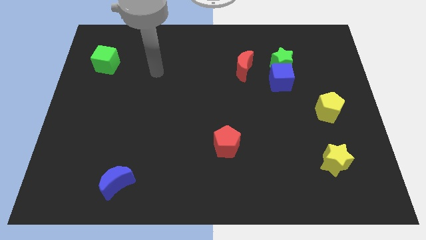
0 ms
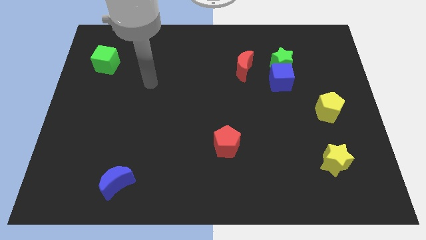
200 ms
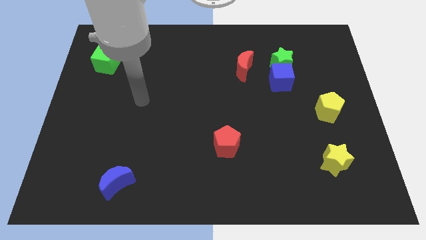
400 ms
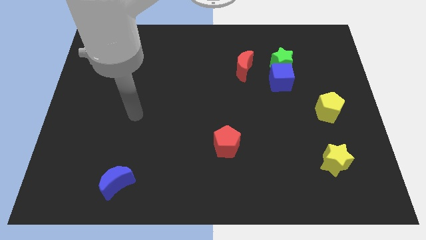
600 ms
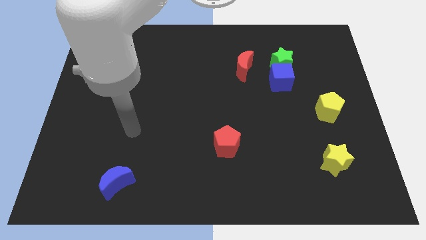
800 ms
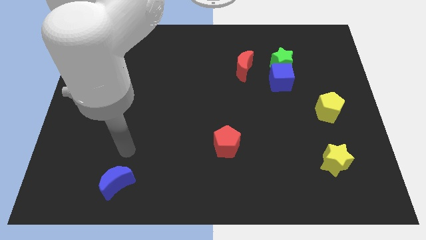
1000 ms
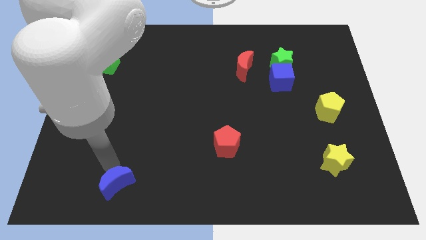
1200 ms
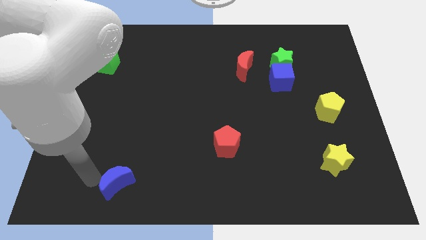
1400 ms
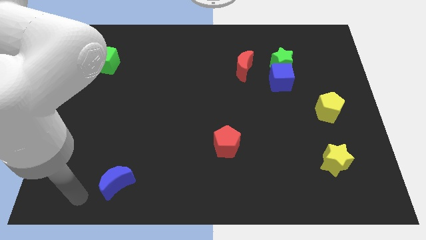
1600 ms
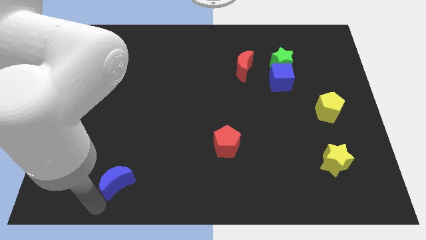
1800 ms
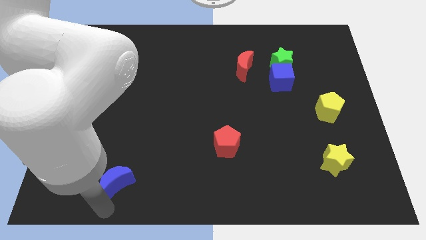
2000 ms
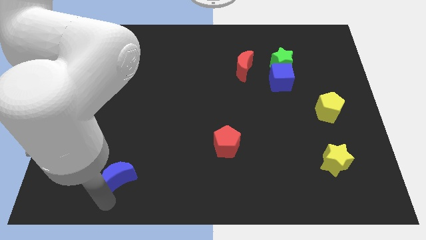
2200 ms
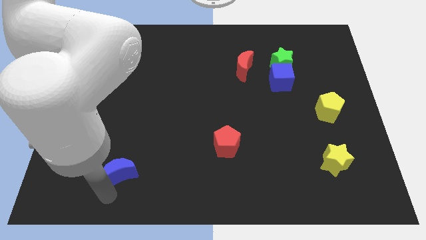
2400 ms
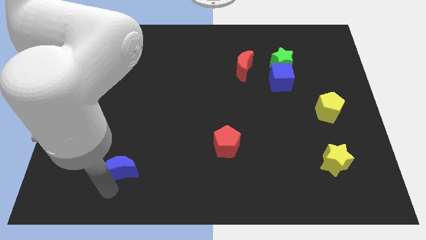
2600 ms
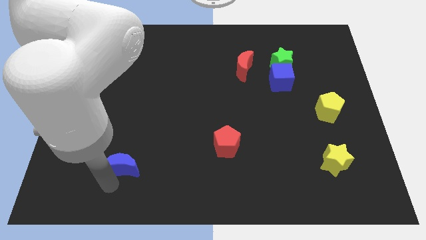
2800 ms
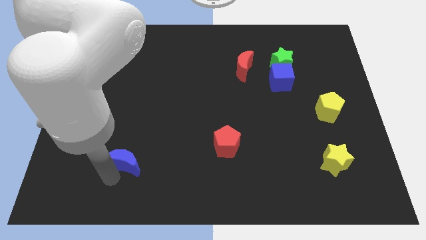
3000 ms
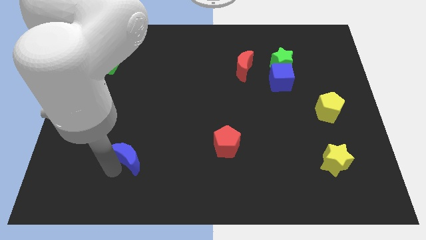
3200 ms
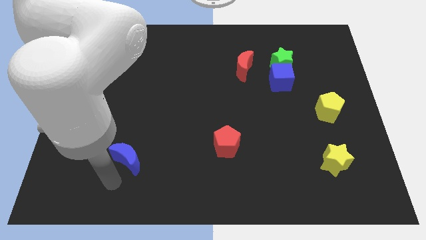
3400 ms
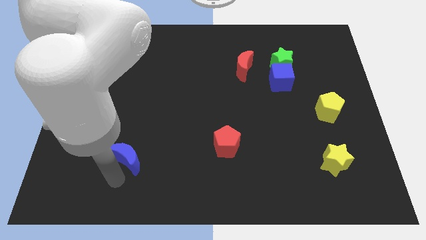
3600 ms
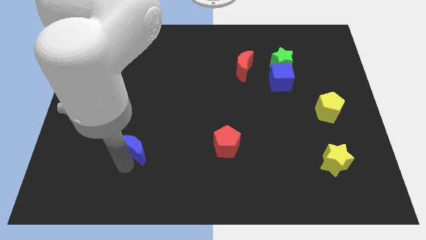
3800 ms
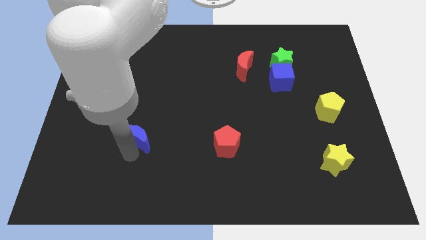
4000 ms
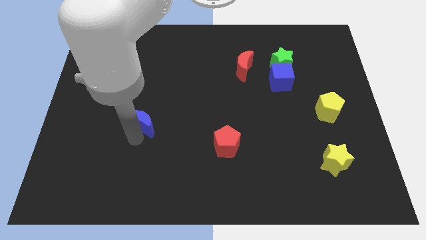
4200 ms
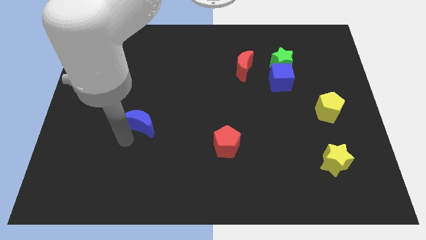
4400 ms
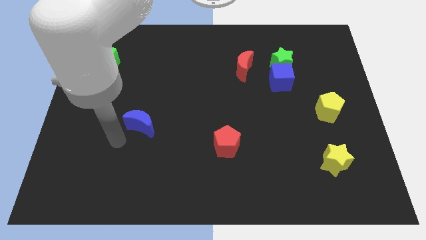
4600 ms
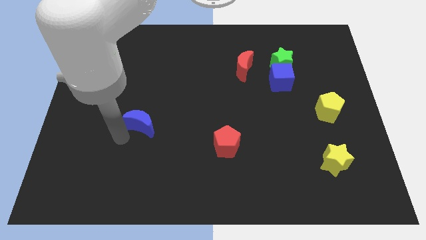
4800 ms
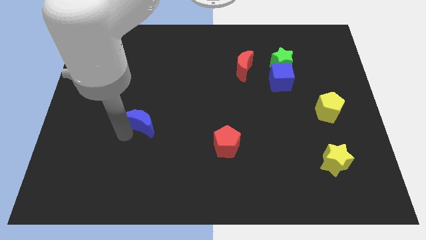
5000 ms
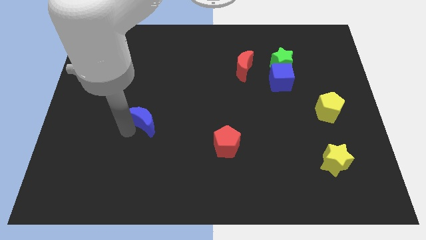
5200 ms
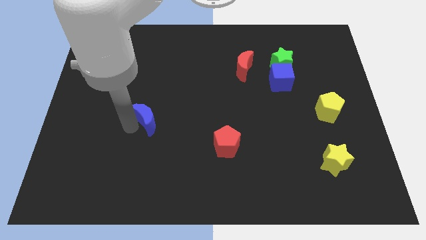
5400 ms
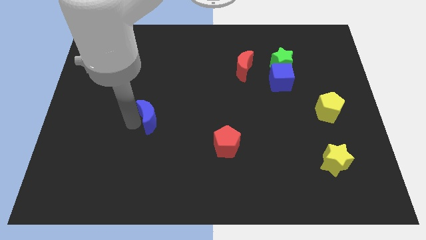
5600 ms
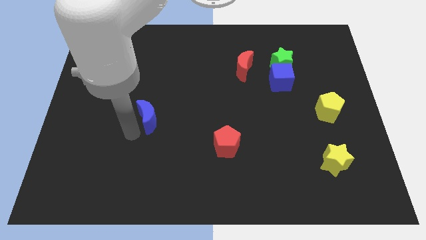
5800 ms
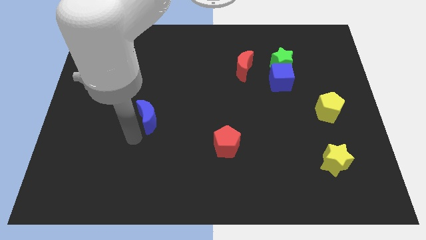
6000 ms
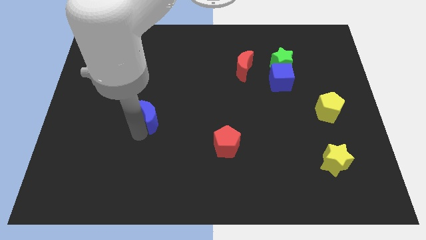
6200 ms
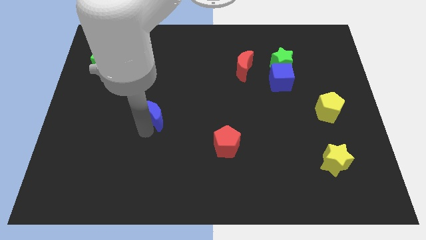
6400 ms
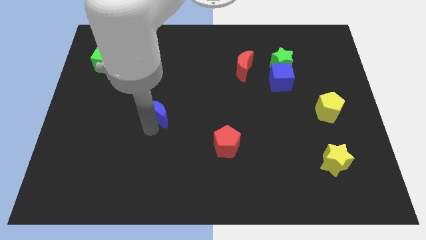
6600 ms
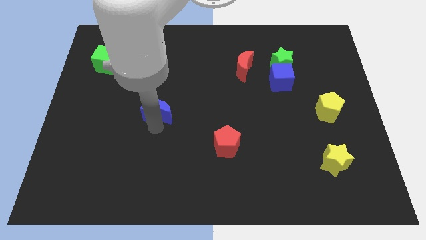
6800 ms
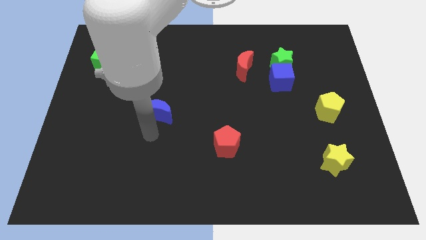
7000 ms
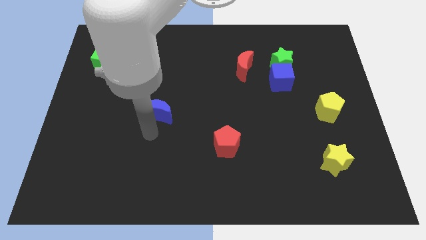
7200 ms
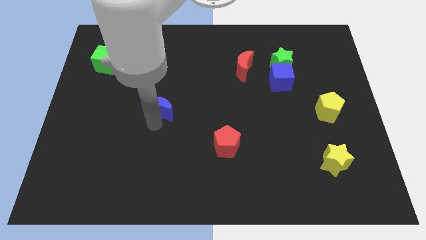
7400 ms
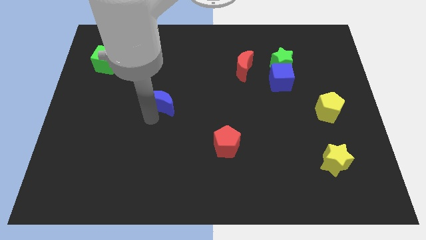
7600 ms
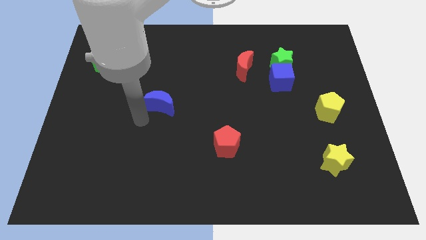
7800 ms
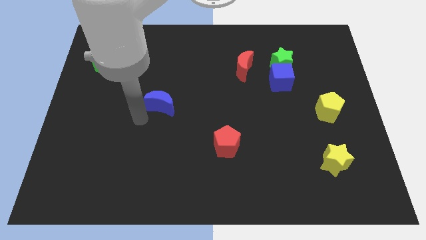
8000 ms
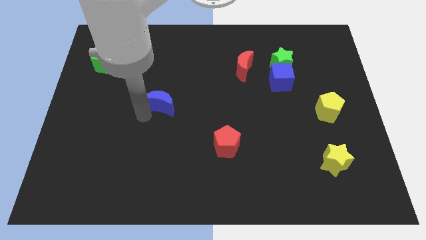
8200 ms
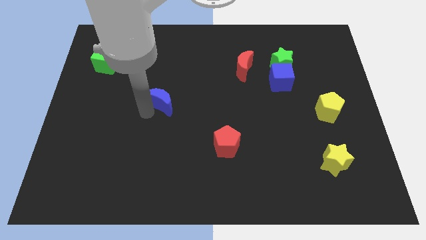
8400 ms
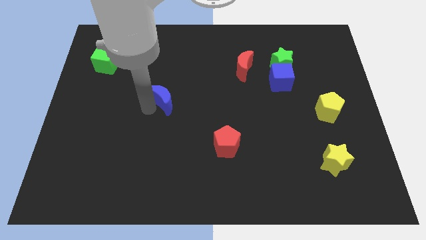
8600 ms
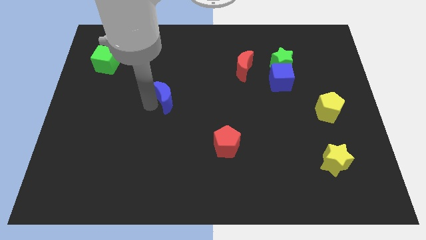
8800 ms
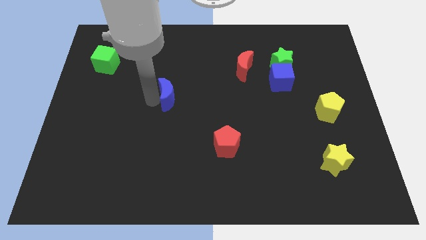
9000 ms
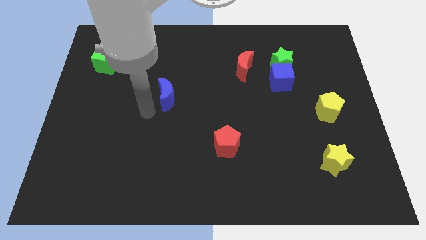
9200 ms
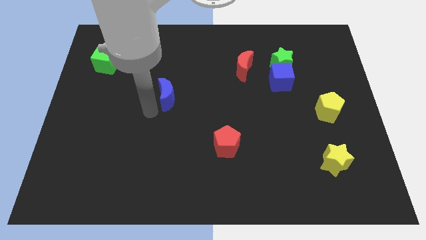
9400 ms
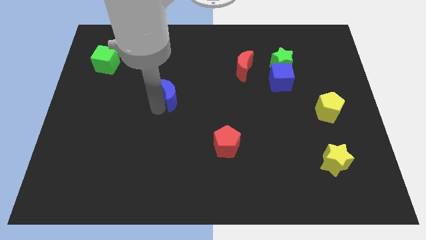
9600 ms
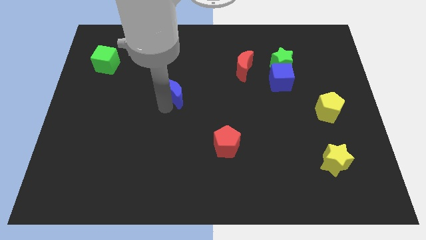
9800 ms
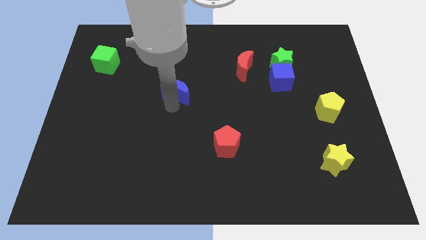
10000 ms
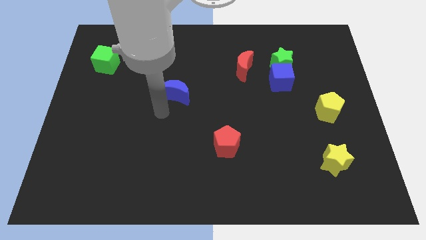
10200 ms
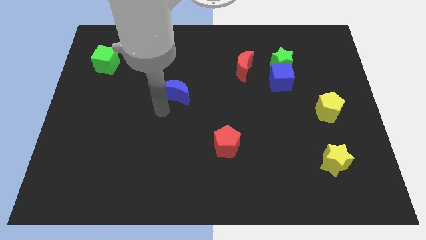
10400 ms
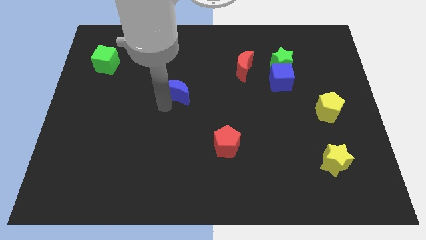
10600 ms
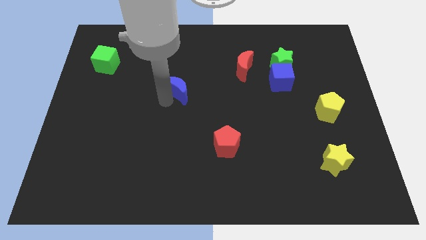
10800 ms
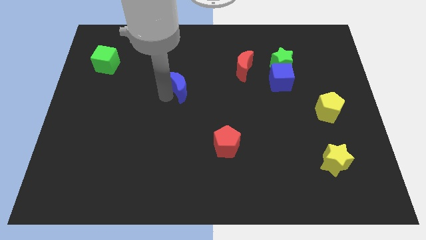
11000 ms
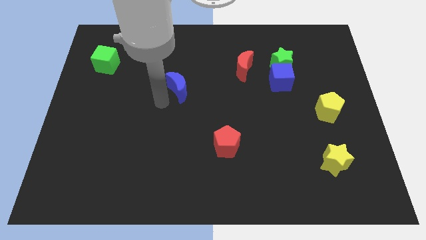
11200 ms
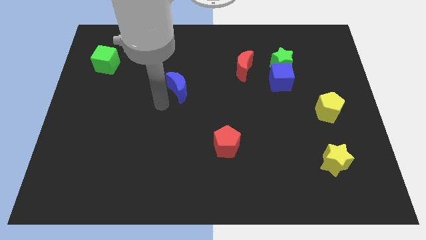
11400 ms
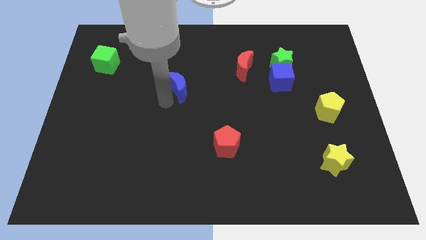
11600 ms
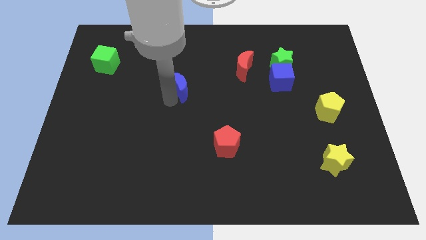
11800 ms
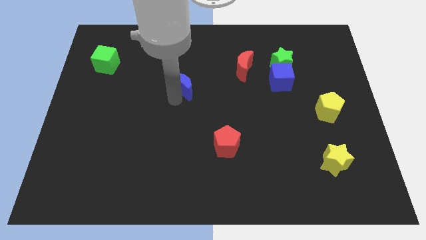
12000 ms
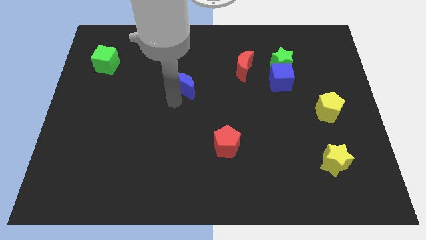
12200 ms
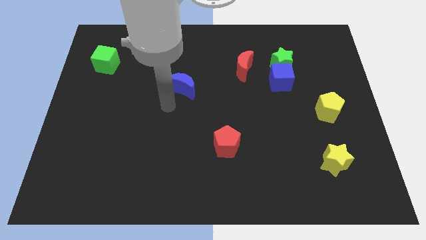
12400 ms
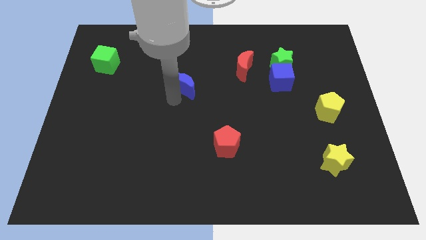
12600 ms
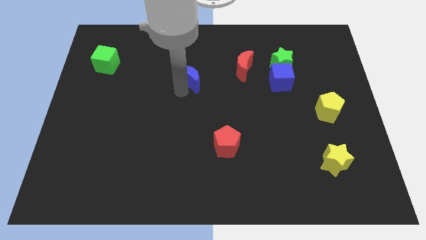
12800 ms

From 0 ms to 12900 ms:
slide the blue moon left of the red moon
